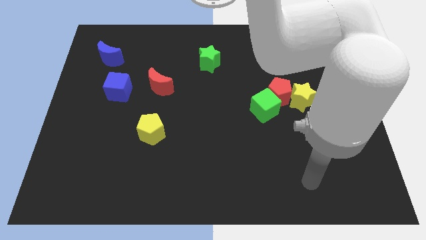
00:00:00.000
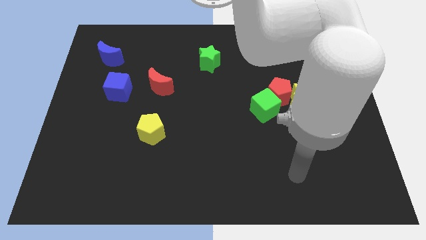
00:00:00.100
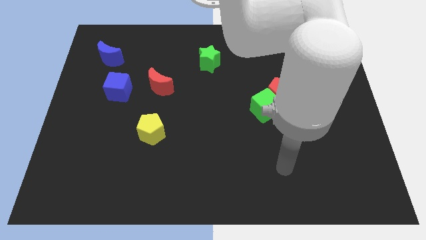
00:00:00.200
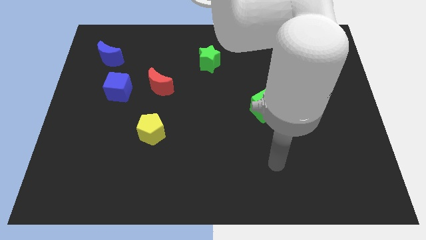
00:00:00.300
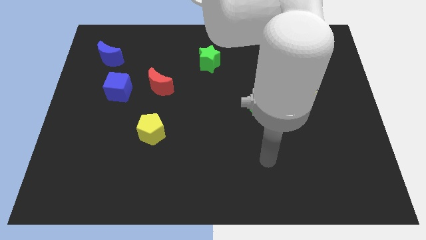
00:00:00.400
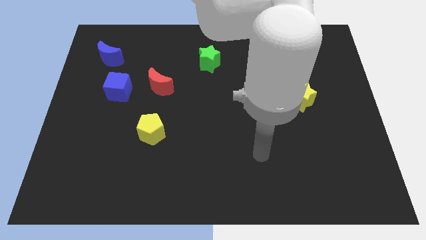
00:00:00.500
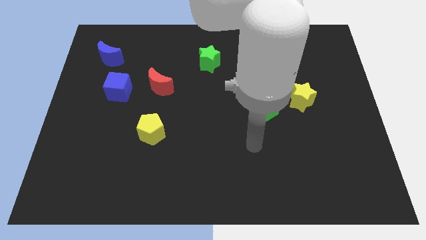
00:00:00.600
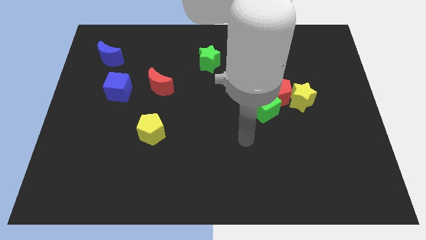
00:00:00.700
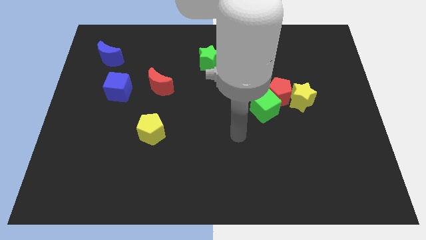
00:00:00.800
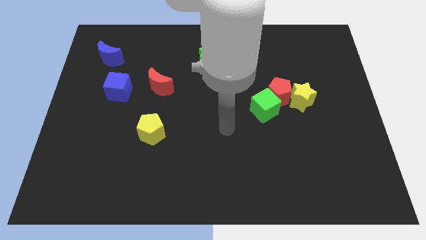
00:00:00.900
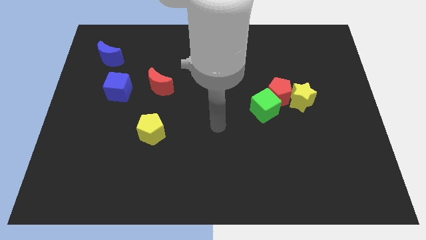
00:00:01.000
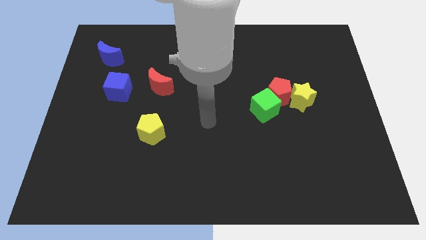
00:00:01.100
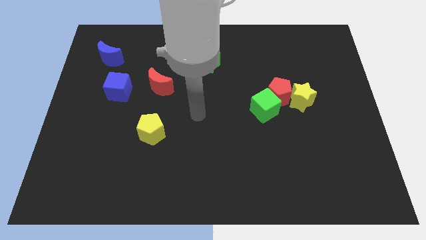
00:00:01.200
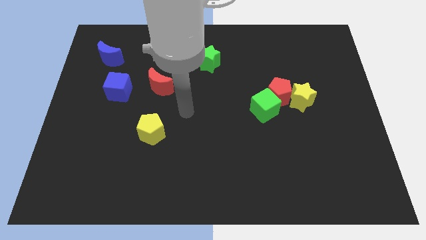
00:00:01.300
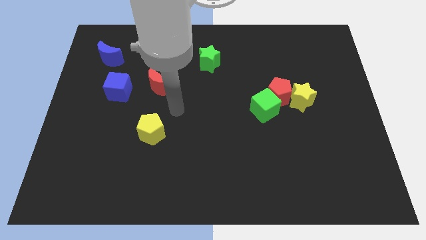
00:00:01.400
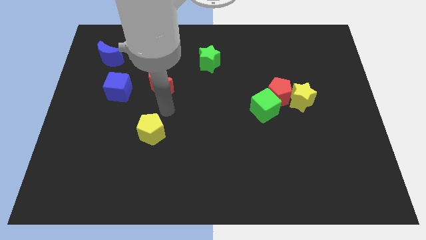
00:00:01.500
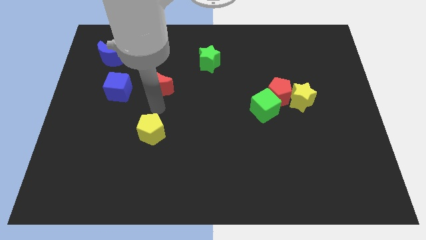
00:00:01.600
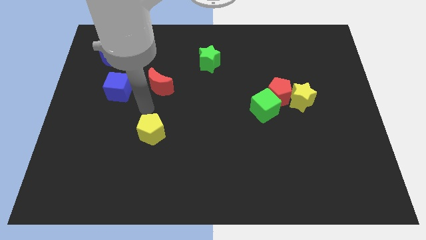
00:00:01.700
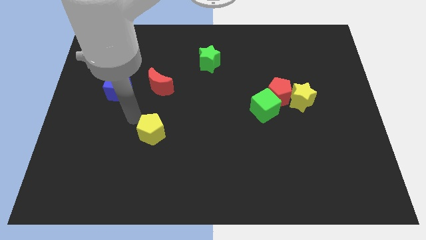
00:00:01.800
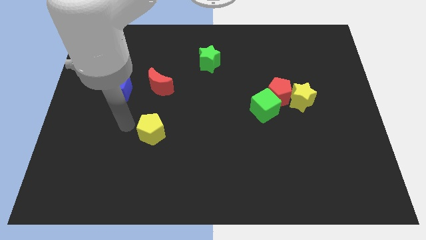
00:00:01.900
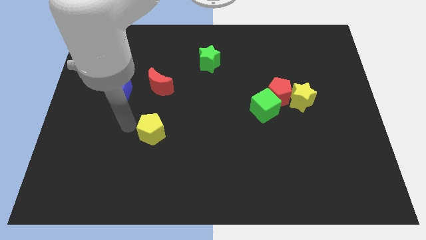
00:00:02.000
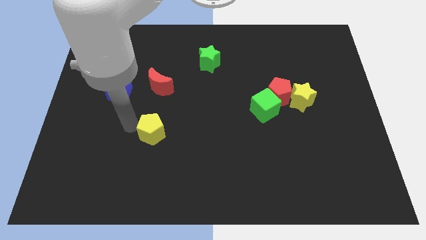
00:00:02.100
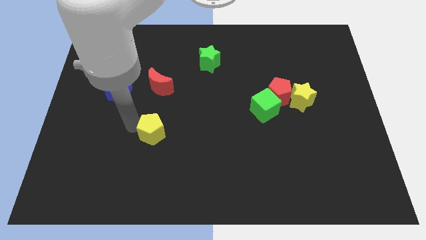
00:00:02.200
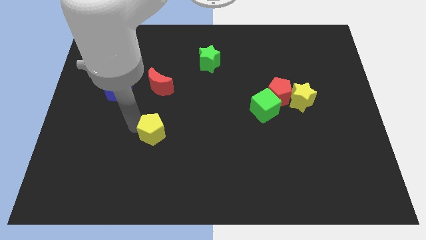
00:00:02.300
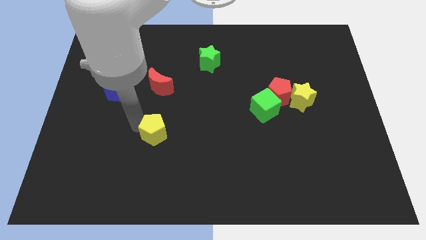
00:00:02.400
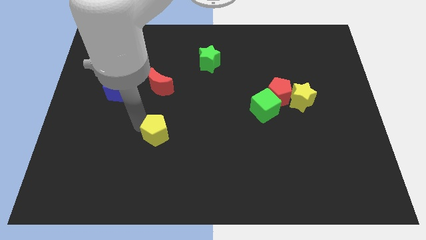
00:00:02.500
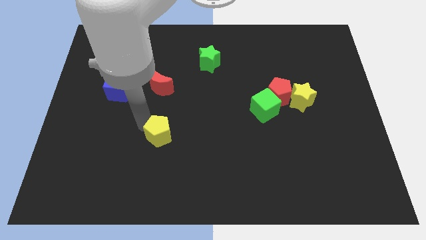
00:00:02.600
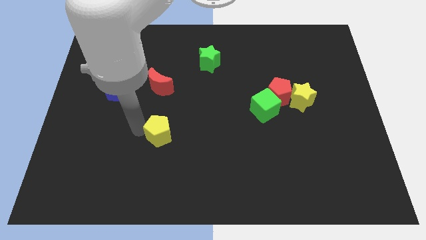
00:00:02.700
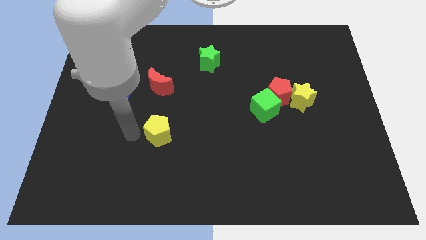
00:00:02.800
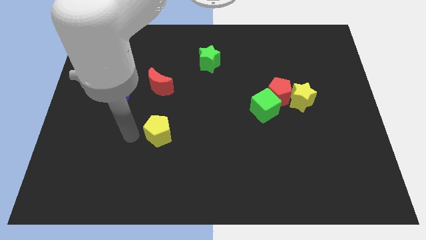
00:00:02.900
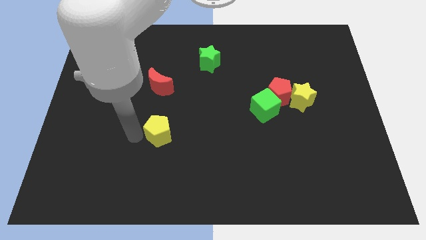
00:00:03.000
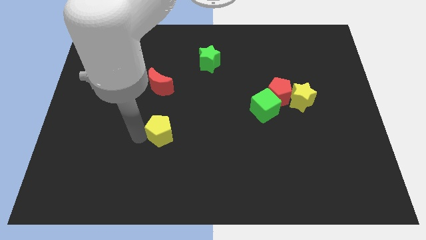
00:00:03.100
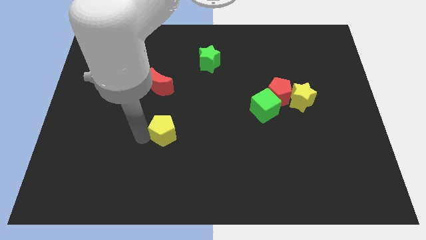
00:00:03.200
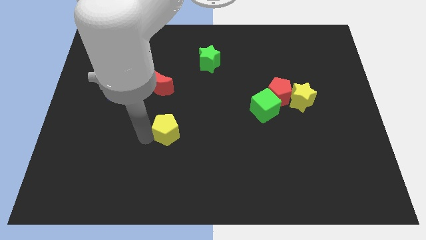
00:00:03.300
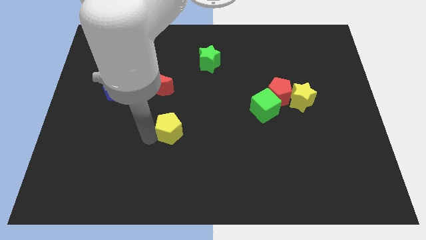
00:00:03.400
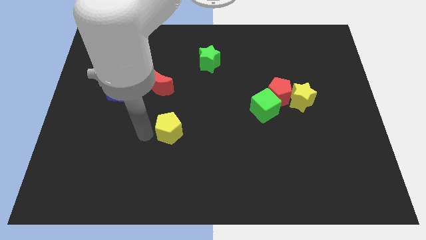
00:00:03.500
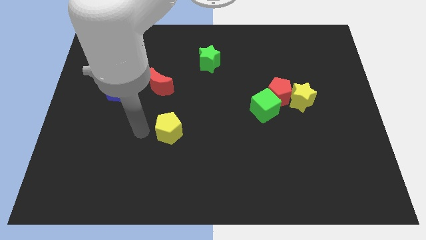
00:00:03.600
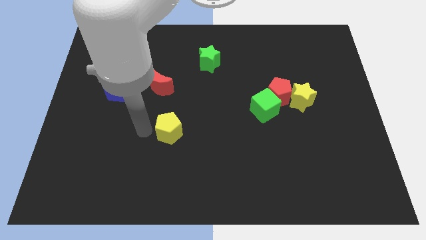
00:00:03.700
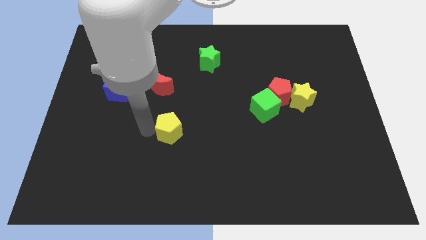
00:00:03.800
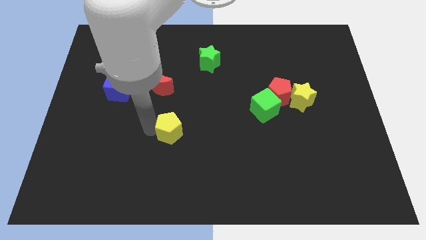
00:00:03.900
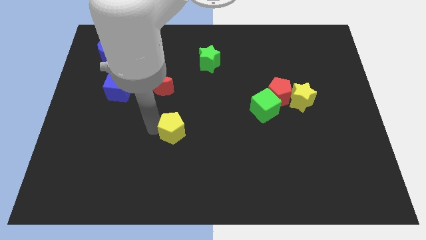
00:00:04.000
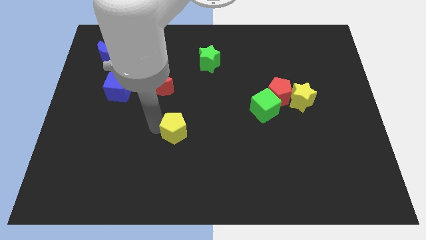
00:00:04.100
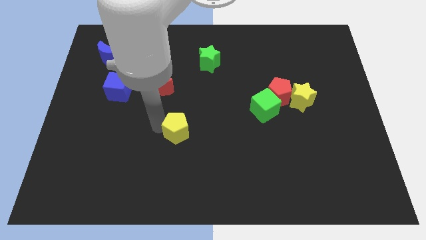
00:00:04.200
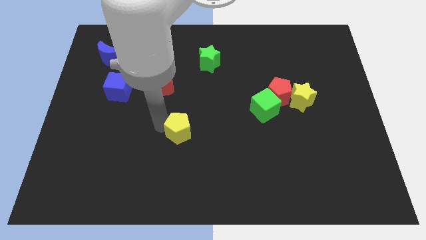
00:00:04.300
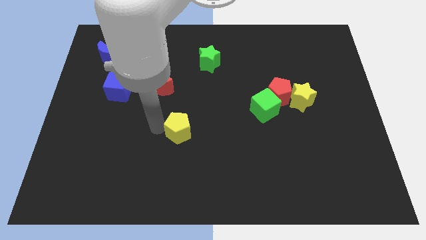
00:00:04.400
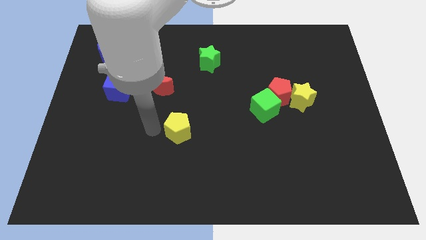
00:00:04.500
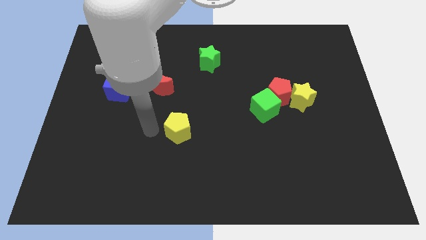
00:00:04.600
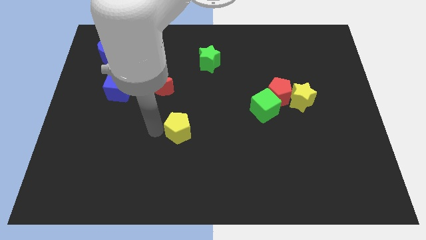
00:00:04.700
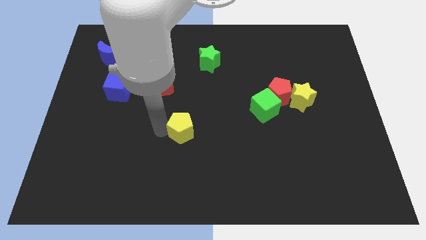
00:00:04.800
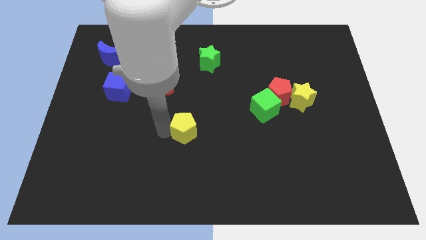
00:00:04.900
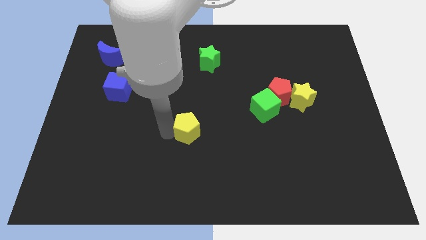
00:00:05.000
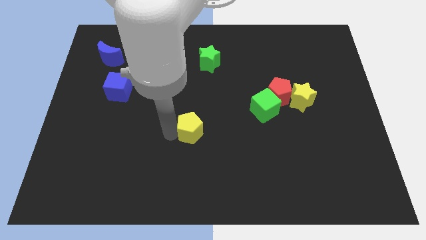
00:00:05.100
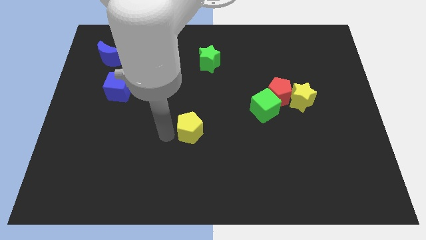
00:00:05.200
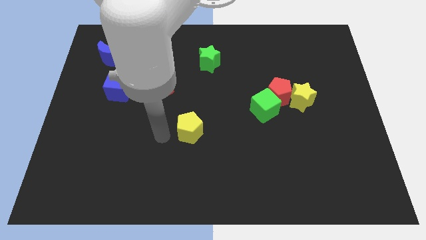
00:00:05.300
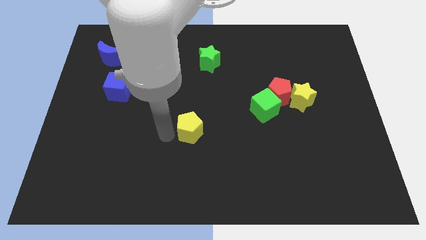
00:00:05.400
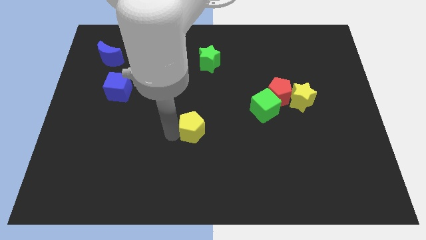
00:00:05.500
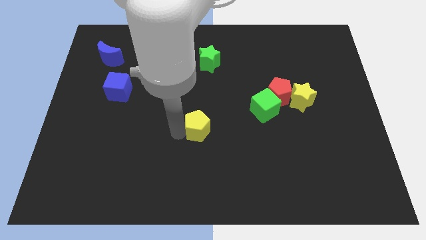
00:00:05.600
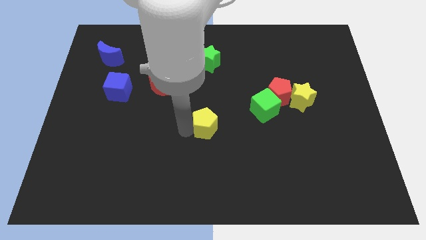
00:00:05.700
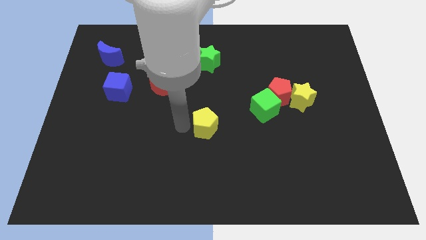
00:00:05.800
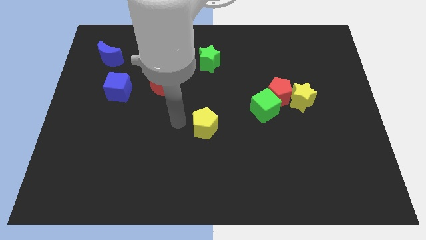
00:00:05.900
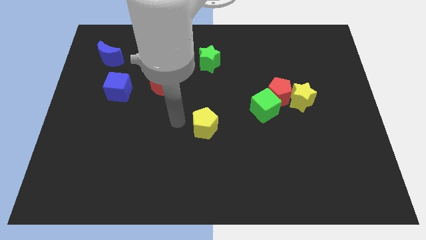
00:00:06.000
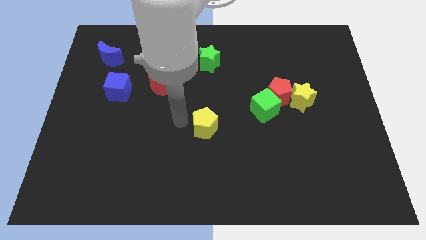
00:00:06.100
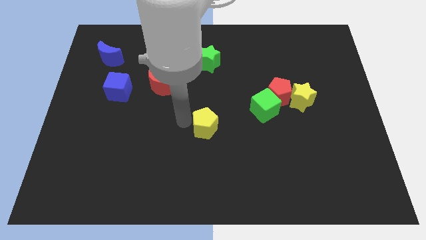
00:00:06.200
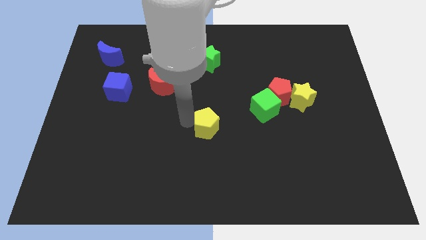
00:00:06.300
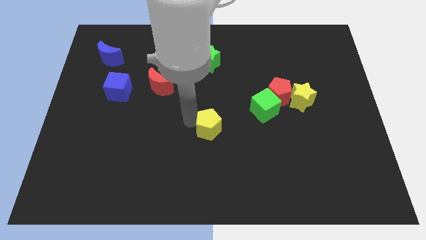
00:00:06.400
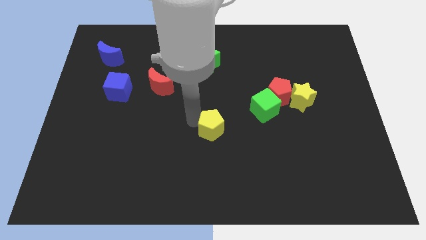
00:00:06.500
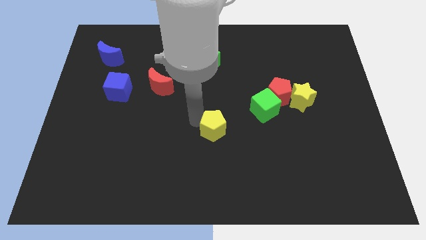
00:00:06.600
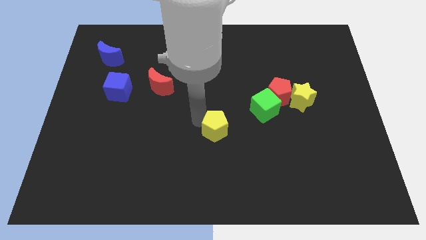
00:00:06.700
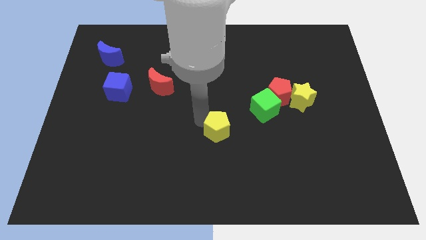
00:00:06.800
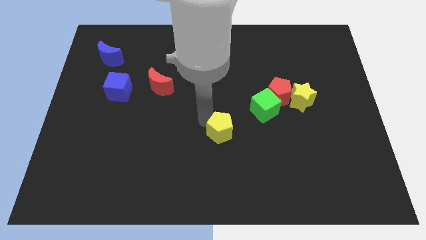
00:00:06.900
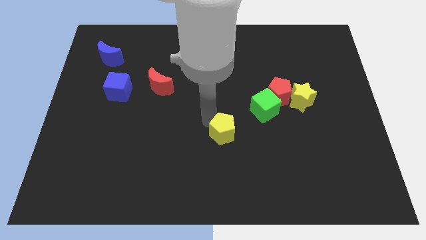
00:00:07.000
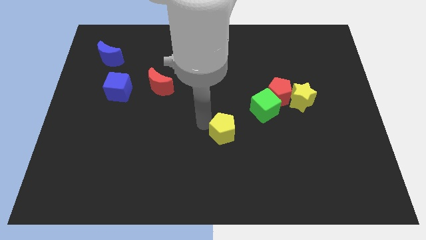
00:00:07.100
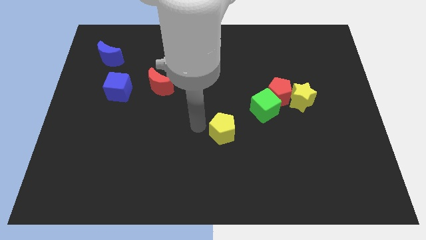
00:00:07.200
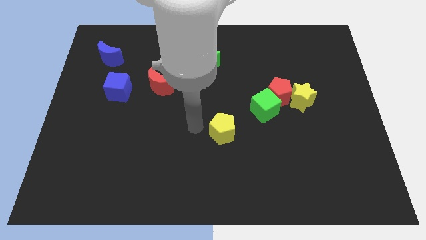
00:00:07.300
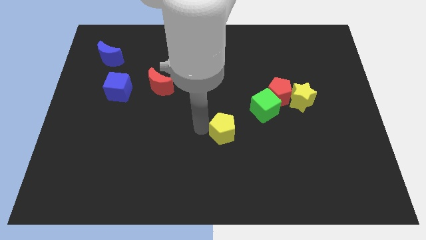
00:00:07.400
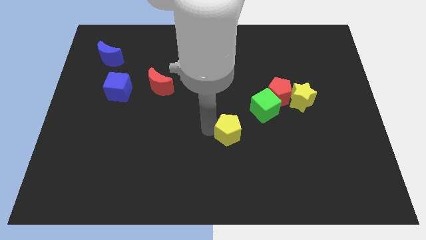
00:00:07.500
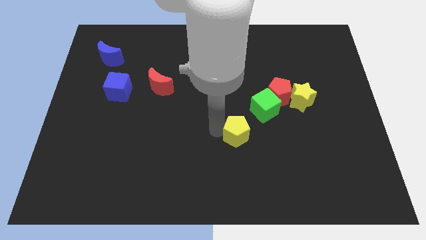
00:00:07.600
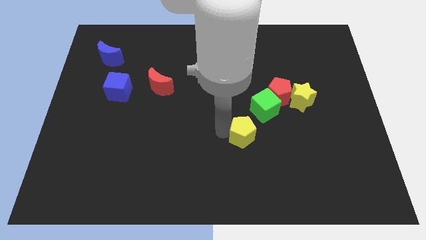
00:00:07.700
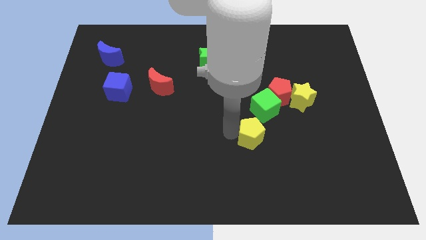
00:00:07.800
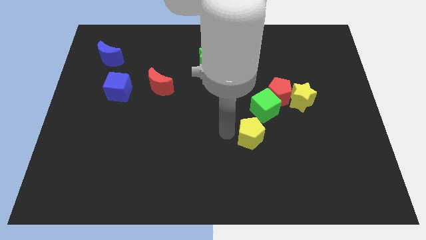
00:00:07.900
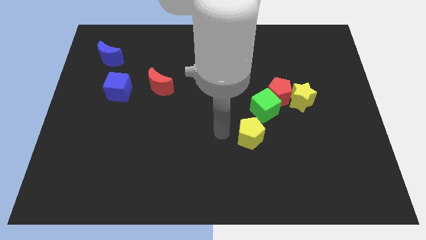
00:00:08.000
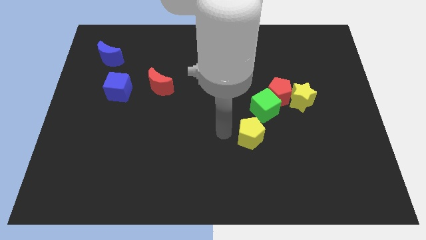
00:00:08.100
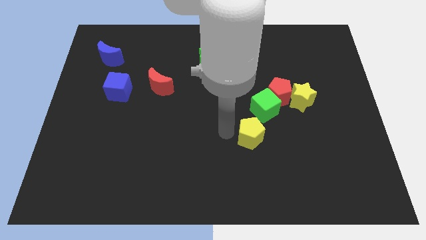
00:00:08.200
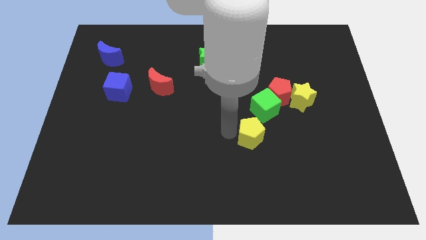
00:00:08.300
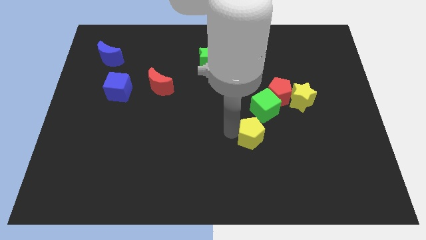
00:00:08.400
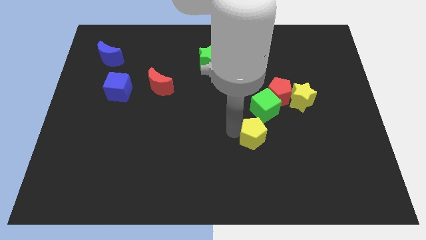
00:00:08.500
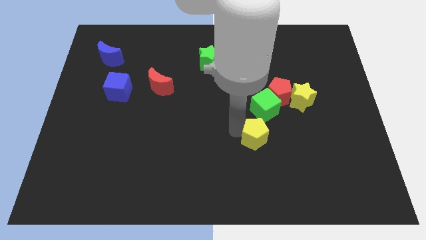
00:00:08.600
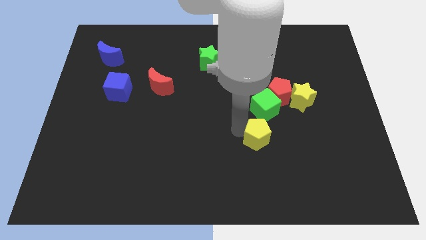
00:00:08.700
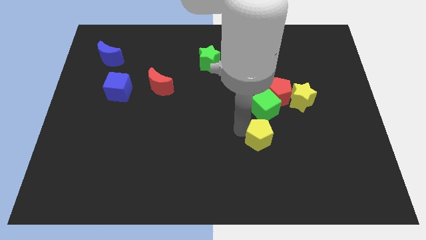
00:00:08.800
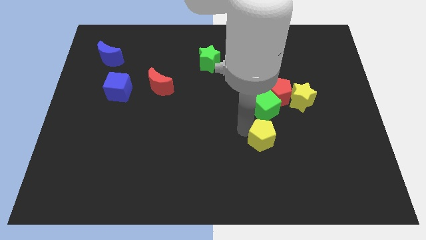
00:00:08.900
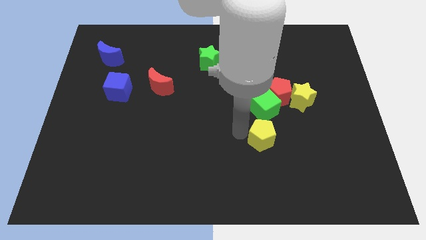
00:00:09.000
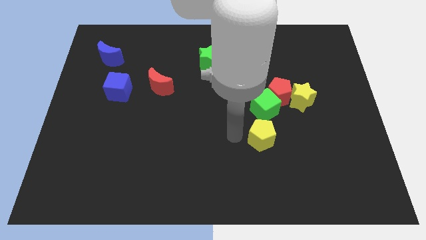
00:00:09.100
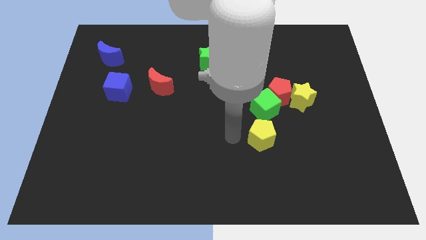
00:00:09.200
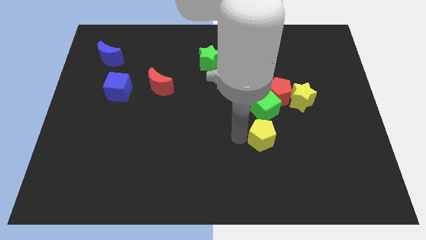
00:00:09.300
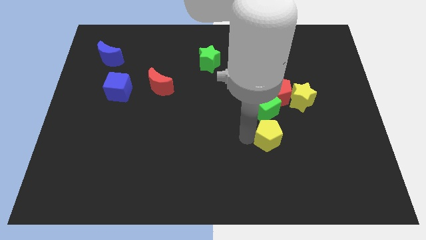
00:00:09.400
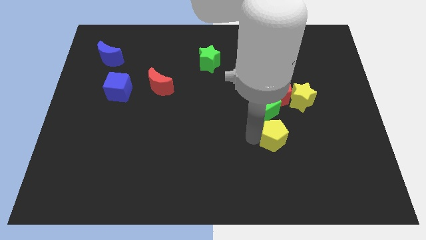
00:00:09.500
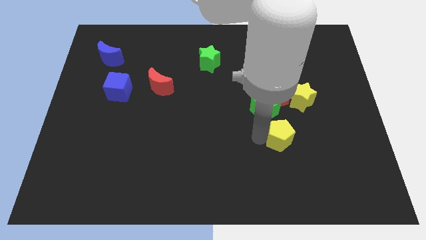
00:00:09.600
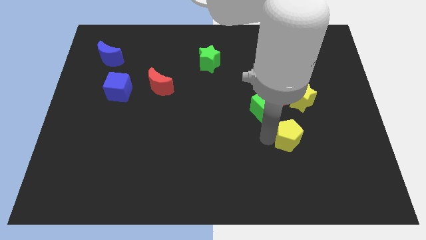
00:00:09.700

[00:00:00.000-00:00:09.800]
move the yellow pentagon to the bottom side of the yellow star
